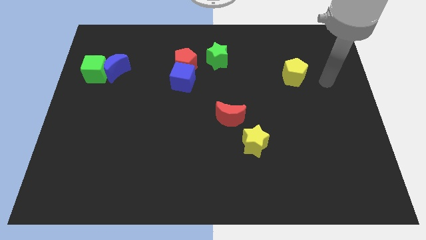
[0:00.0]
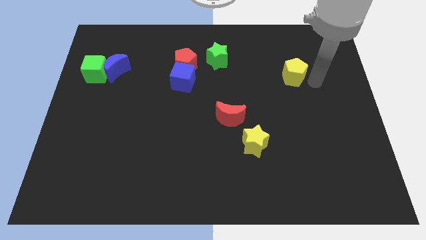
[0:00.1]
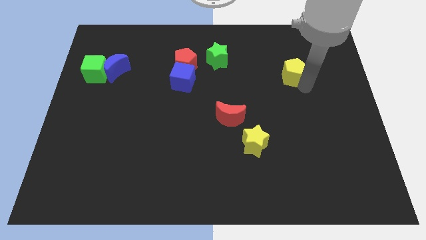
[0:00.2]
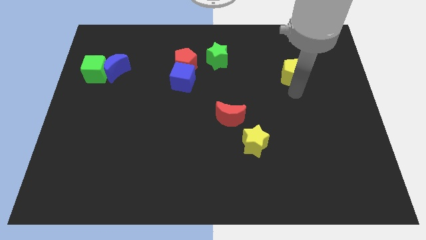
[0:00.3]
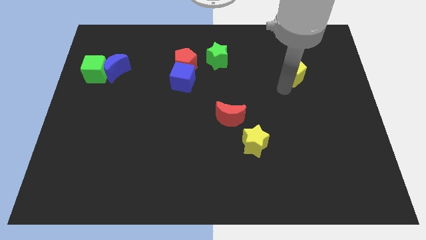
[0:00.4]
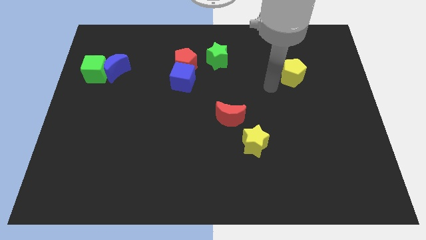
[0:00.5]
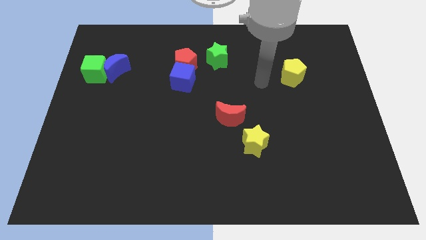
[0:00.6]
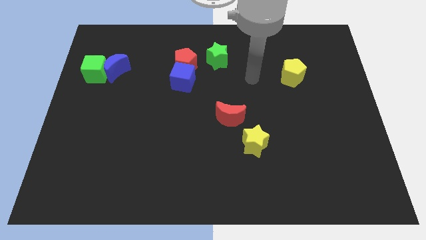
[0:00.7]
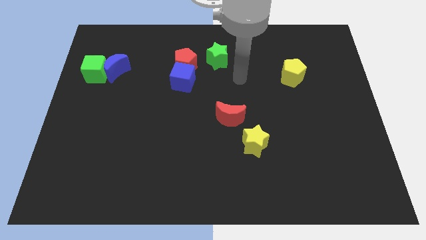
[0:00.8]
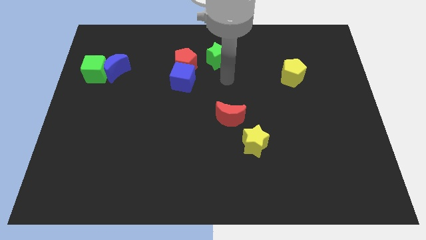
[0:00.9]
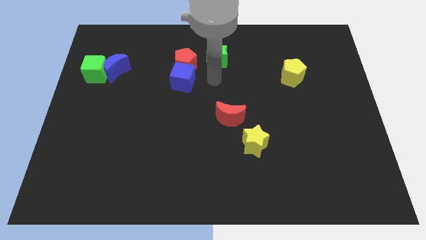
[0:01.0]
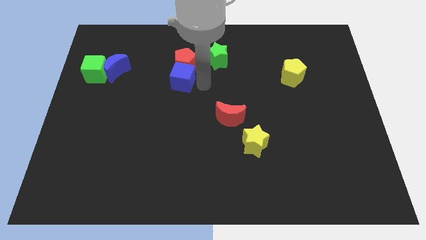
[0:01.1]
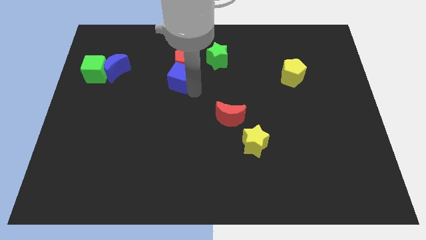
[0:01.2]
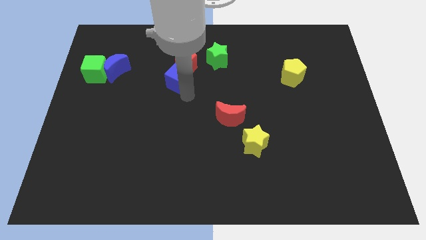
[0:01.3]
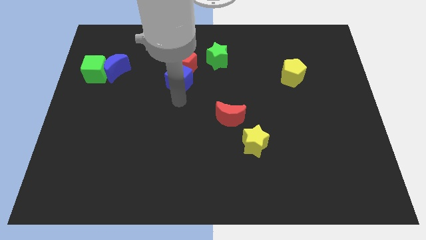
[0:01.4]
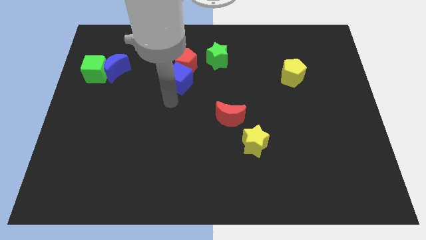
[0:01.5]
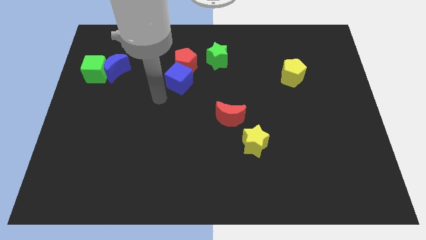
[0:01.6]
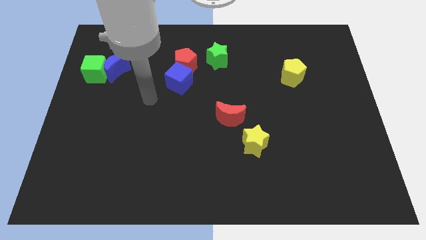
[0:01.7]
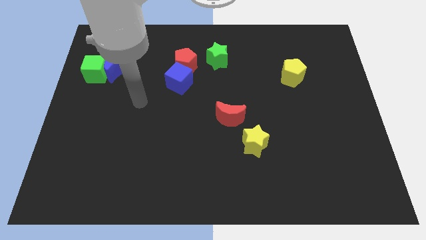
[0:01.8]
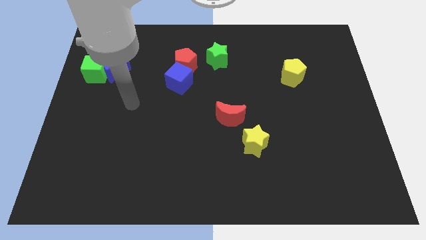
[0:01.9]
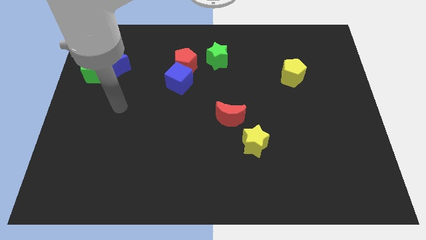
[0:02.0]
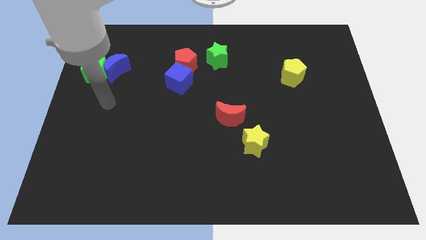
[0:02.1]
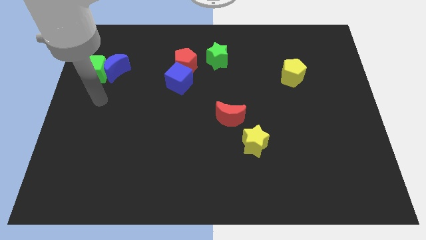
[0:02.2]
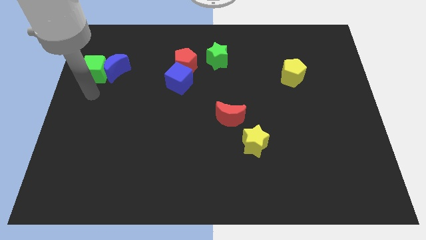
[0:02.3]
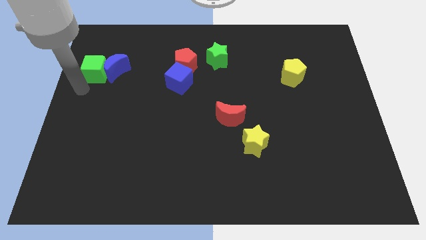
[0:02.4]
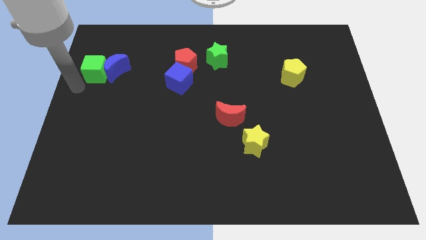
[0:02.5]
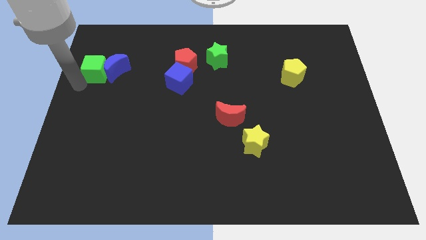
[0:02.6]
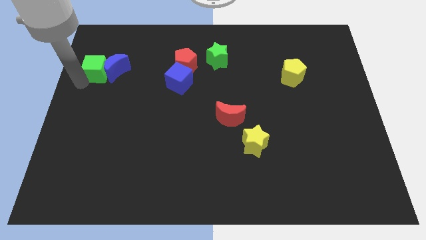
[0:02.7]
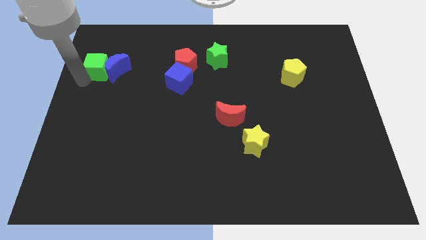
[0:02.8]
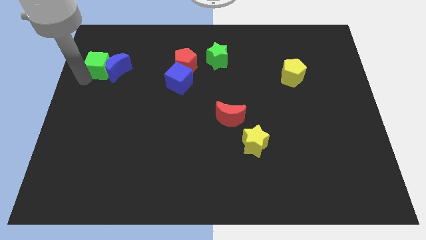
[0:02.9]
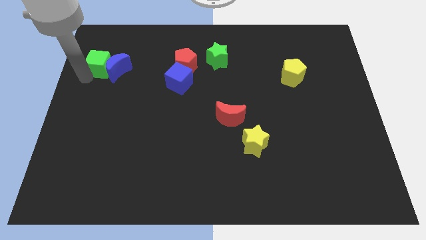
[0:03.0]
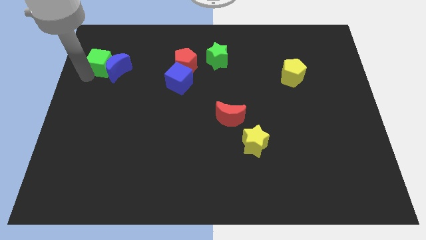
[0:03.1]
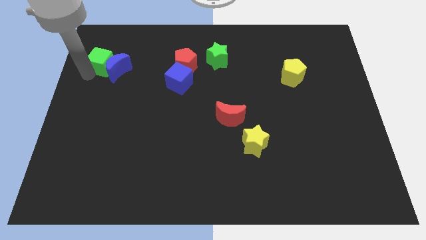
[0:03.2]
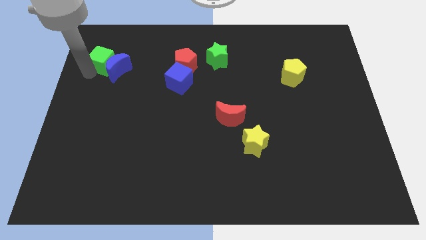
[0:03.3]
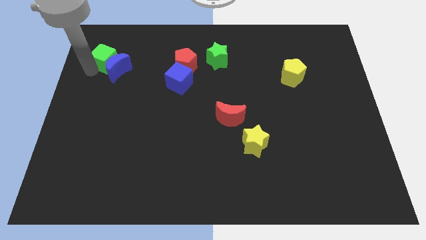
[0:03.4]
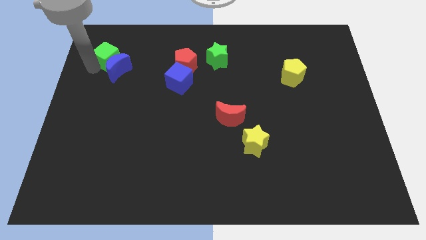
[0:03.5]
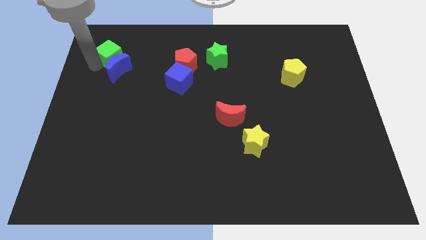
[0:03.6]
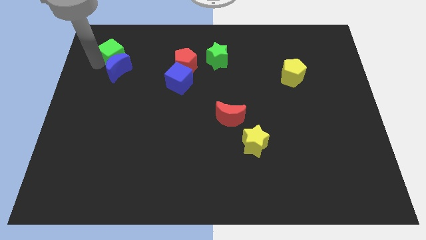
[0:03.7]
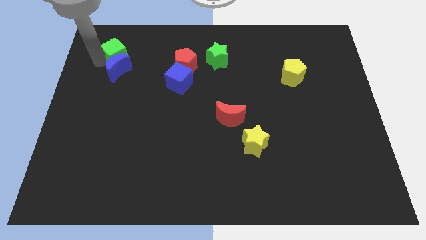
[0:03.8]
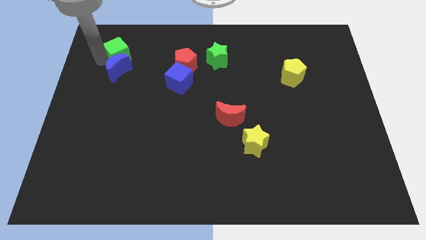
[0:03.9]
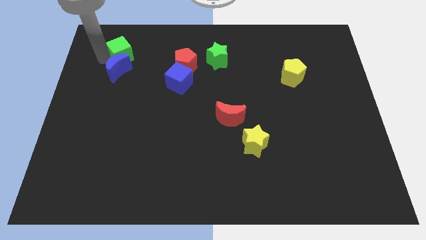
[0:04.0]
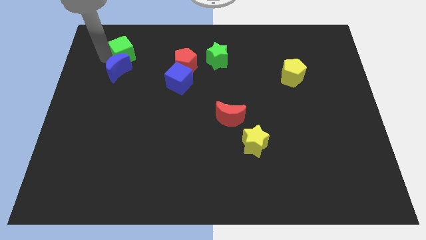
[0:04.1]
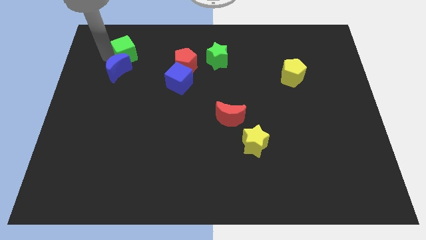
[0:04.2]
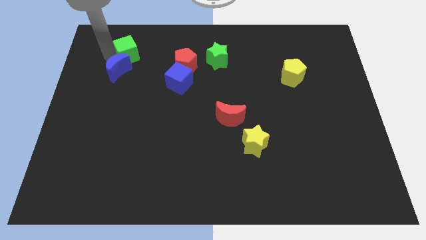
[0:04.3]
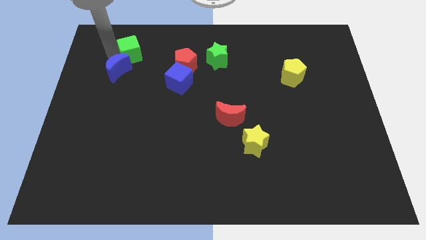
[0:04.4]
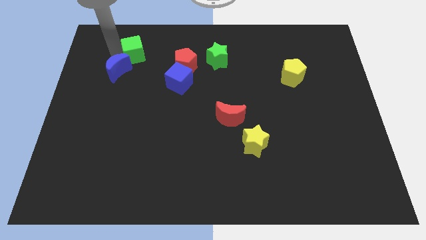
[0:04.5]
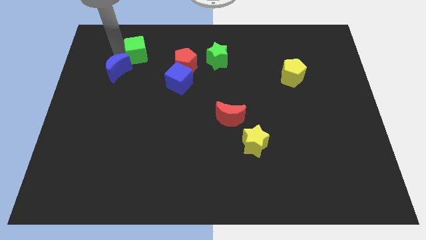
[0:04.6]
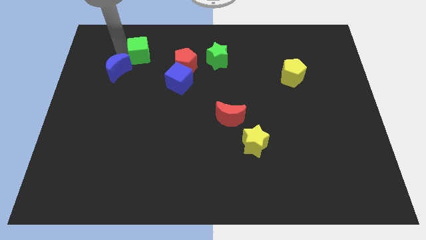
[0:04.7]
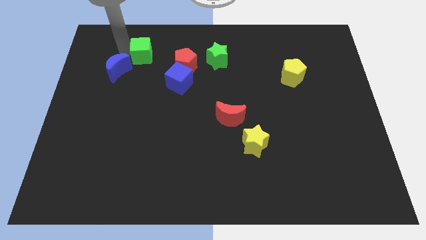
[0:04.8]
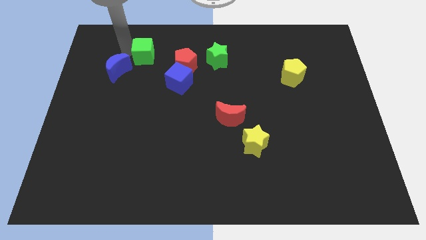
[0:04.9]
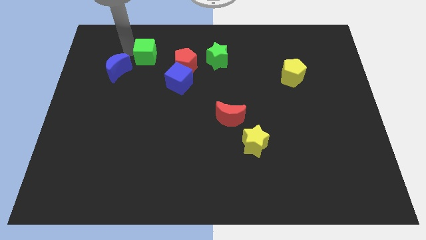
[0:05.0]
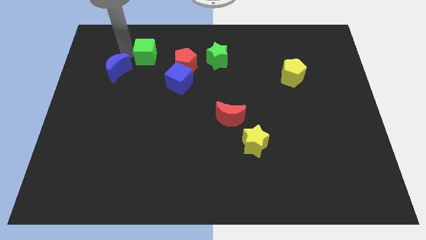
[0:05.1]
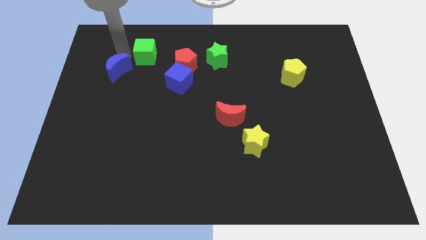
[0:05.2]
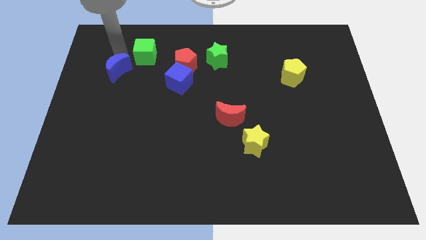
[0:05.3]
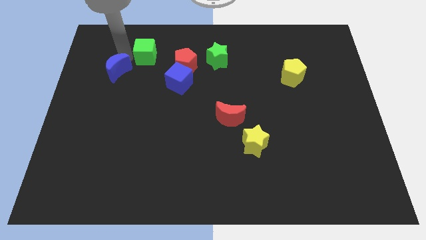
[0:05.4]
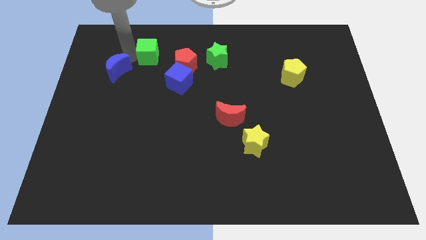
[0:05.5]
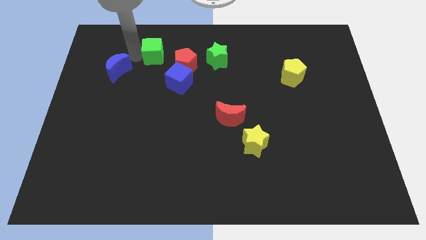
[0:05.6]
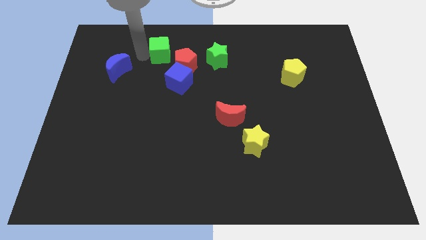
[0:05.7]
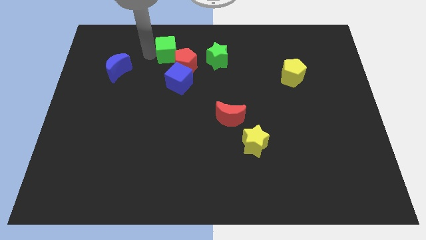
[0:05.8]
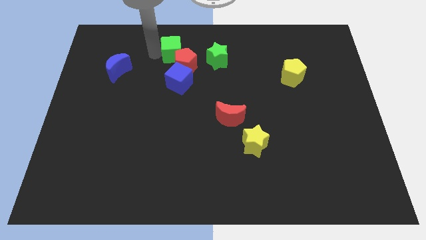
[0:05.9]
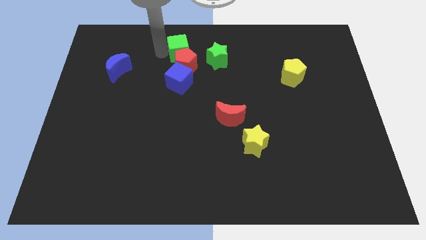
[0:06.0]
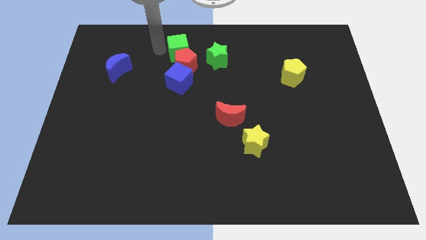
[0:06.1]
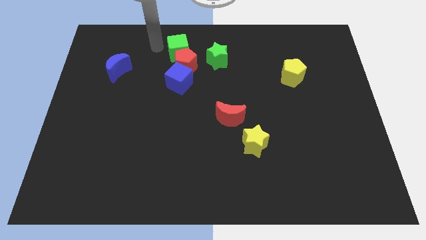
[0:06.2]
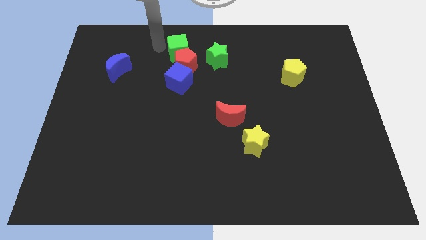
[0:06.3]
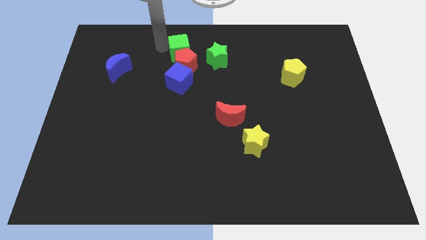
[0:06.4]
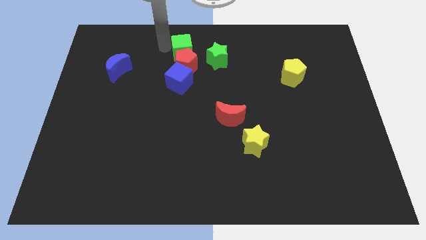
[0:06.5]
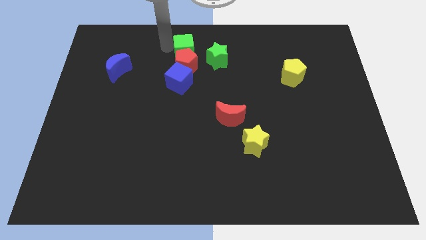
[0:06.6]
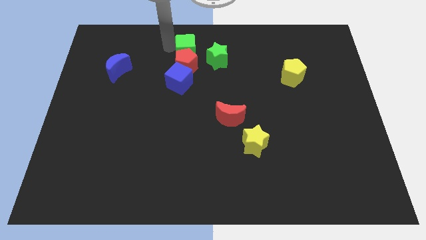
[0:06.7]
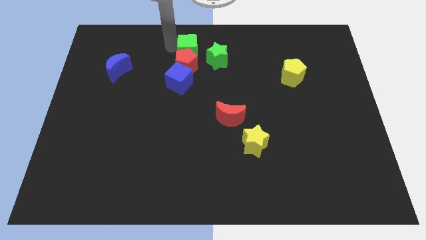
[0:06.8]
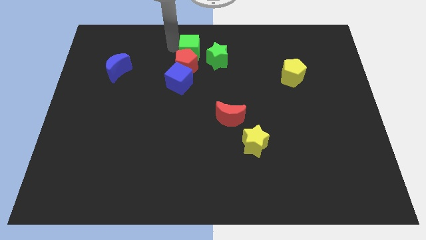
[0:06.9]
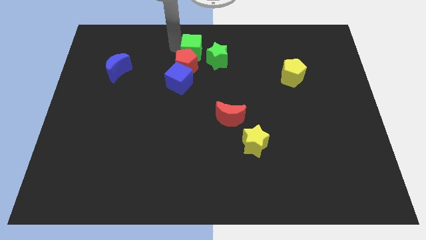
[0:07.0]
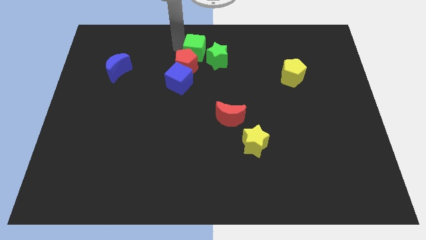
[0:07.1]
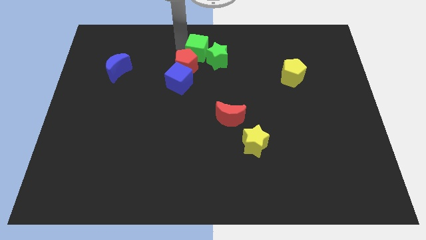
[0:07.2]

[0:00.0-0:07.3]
put the green cube next to the green star
